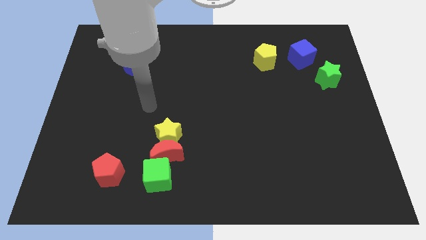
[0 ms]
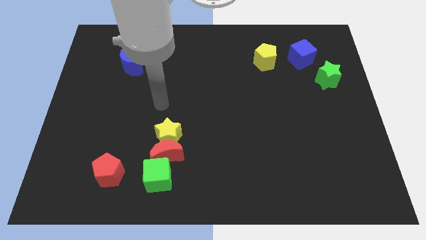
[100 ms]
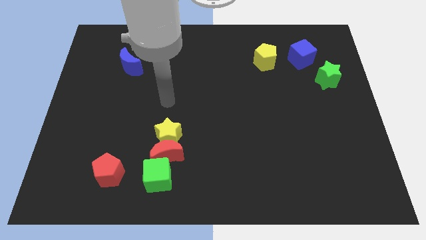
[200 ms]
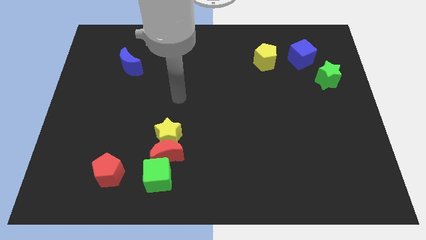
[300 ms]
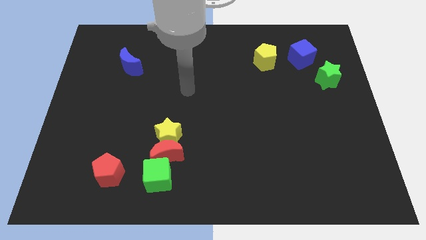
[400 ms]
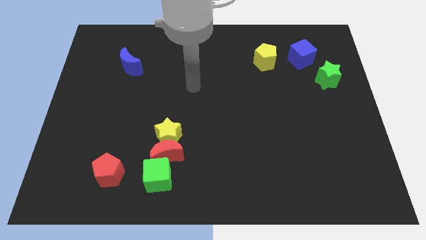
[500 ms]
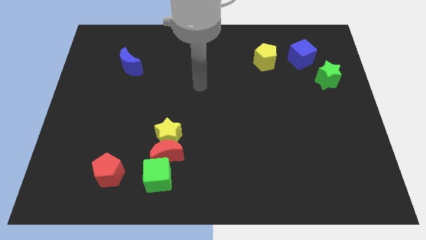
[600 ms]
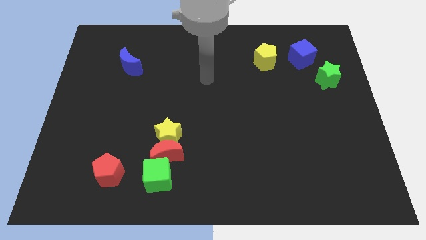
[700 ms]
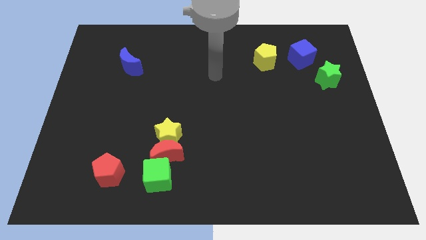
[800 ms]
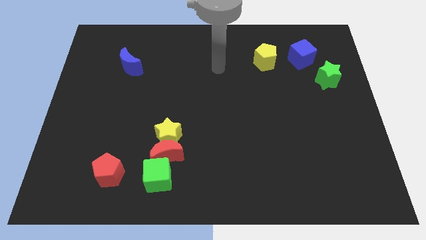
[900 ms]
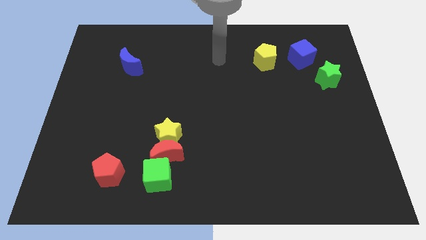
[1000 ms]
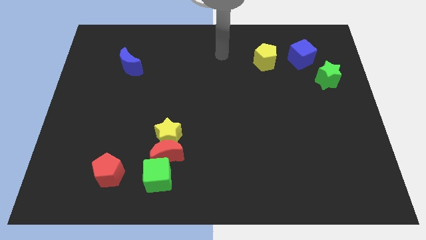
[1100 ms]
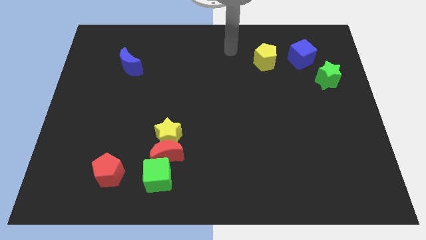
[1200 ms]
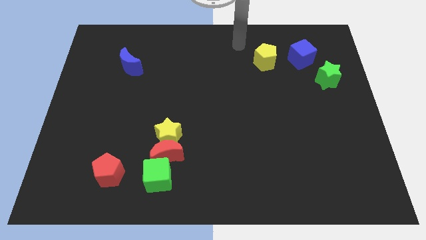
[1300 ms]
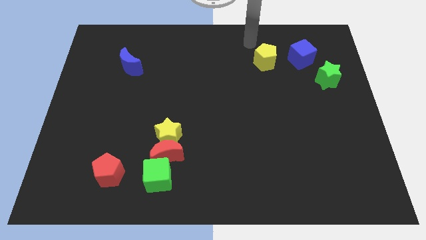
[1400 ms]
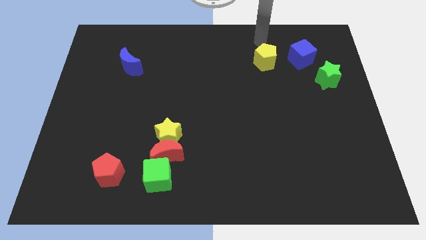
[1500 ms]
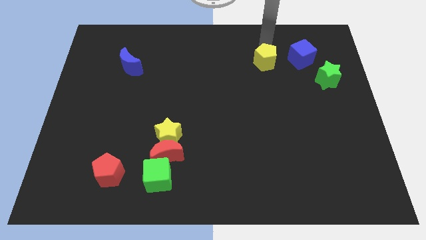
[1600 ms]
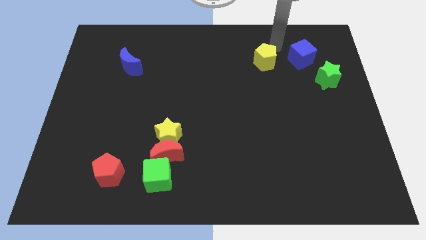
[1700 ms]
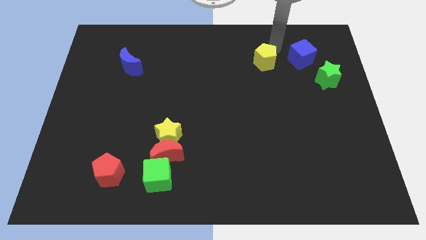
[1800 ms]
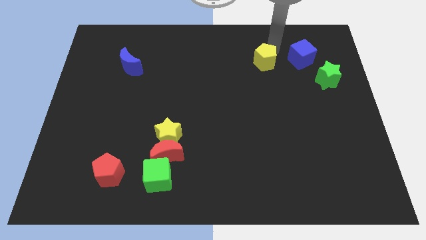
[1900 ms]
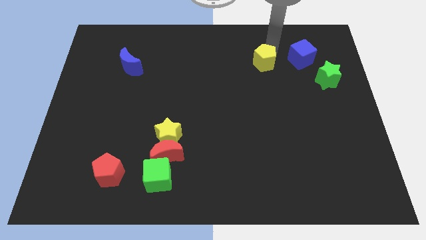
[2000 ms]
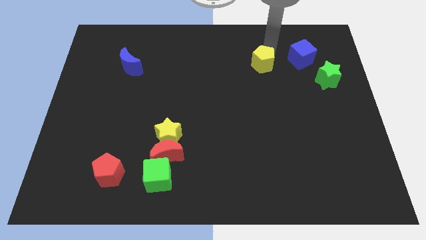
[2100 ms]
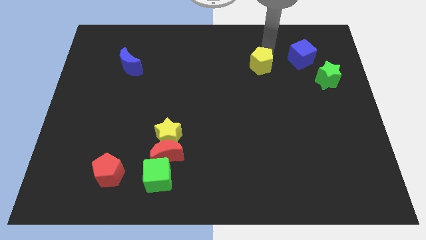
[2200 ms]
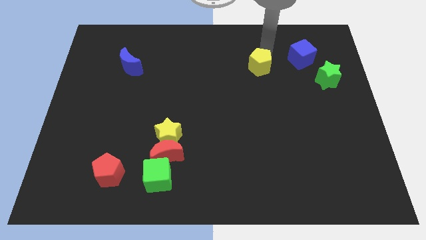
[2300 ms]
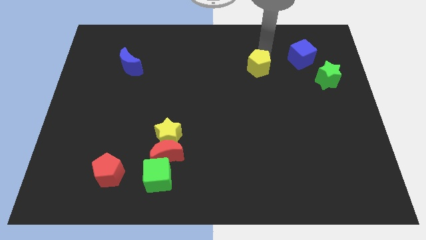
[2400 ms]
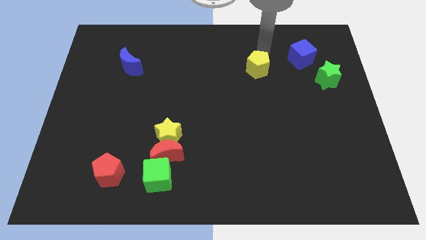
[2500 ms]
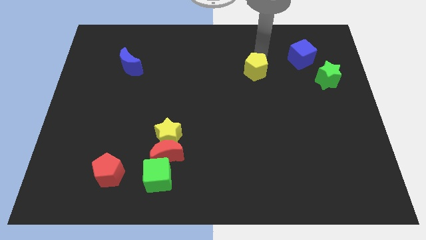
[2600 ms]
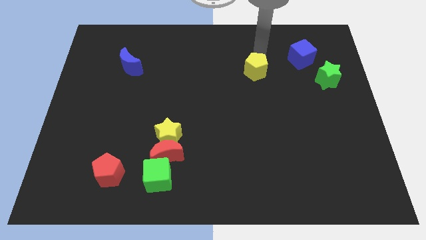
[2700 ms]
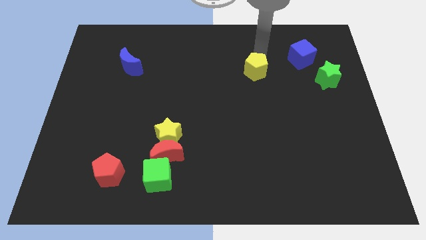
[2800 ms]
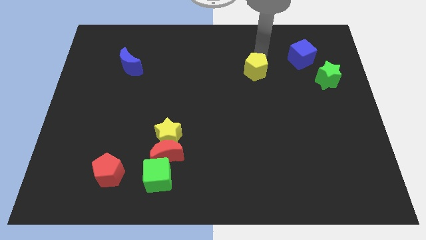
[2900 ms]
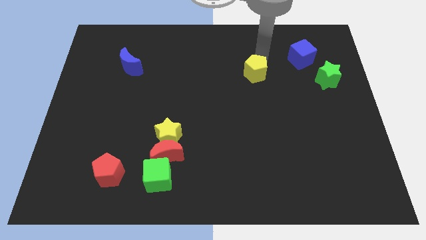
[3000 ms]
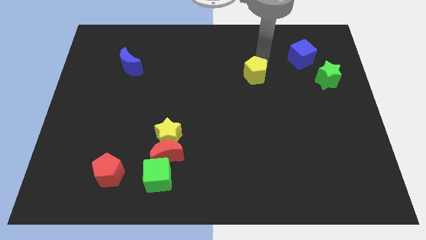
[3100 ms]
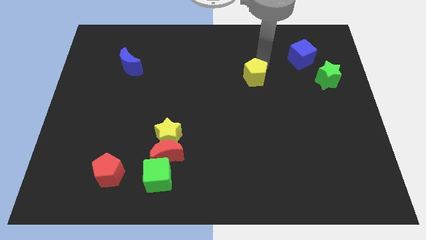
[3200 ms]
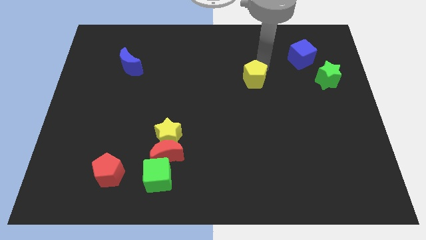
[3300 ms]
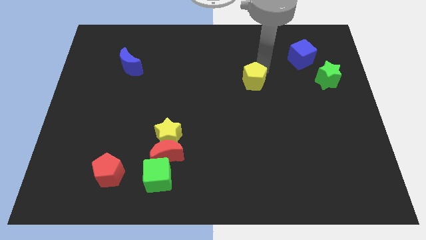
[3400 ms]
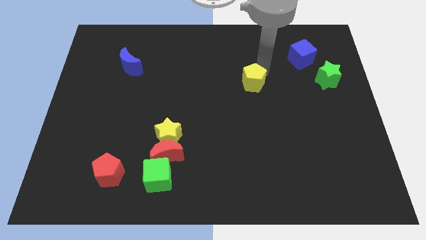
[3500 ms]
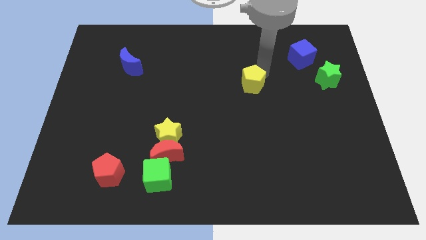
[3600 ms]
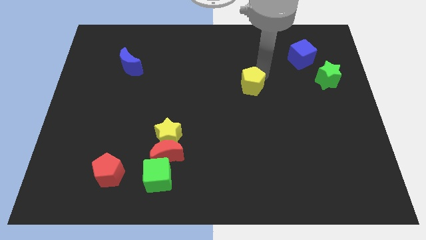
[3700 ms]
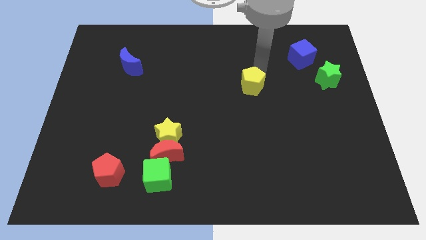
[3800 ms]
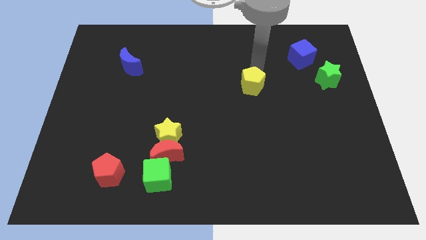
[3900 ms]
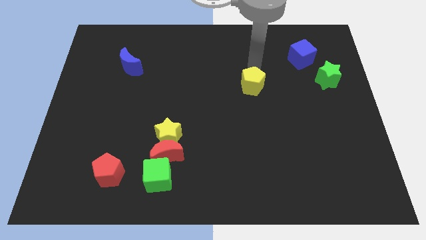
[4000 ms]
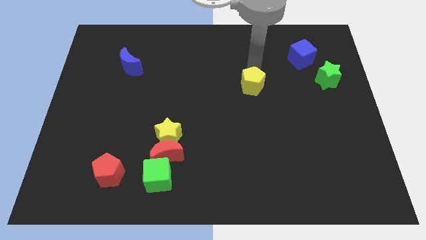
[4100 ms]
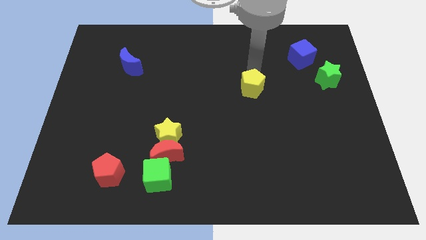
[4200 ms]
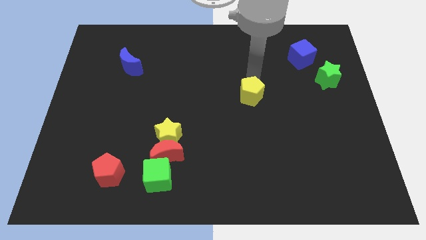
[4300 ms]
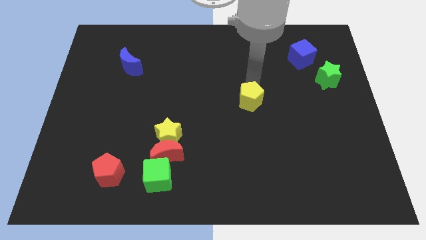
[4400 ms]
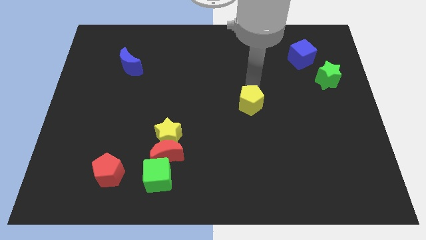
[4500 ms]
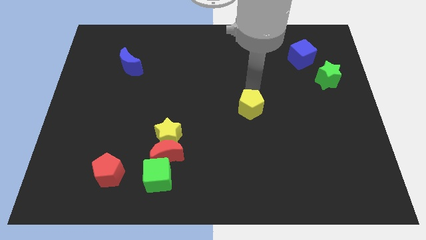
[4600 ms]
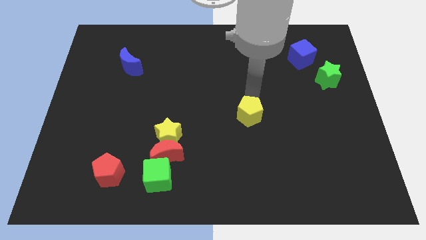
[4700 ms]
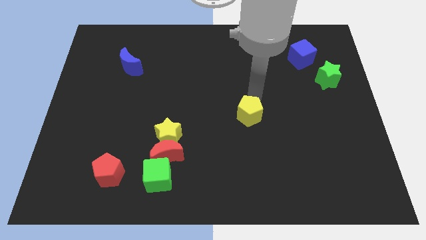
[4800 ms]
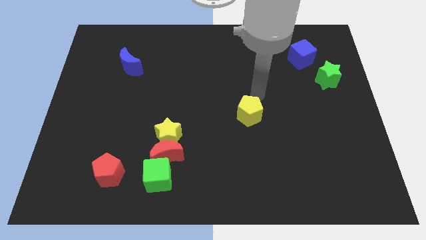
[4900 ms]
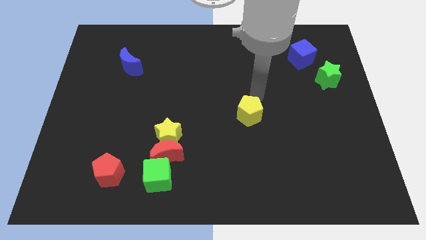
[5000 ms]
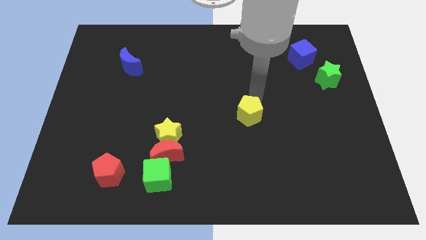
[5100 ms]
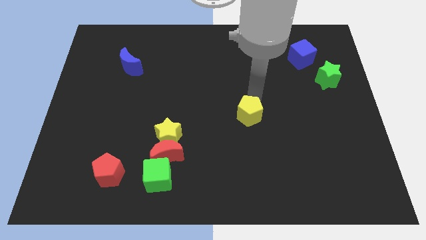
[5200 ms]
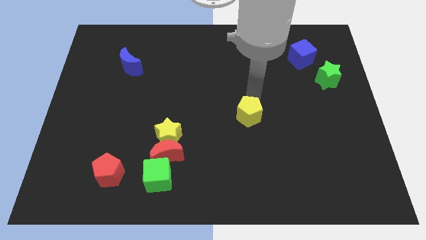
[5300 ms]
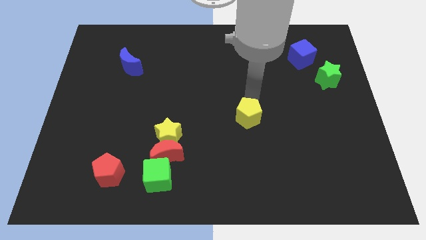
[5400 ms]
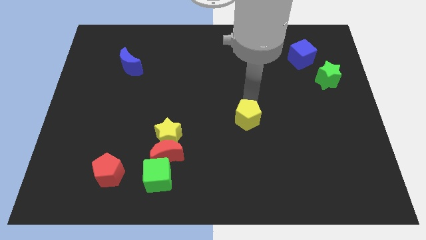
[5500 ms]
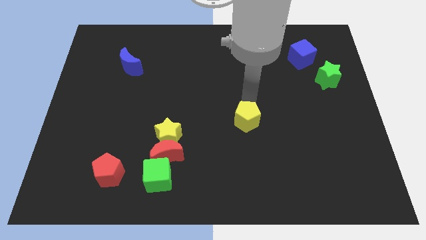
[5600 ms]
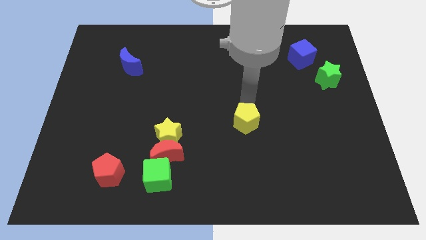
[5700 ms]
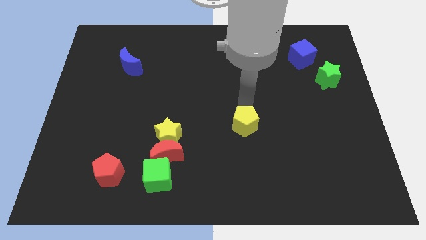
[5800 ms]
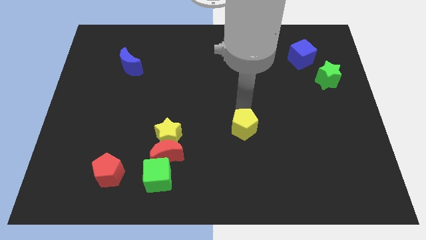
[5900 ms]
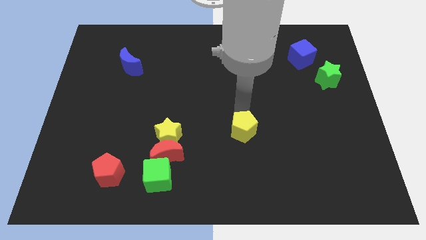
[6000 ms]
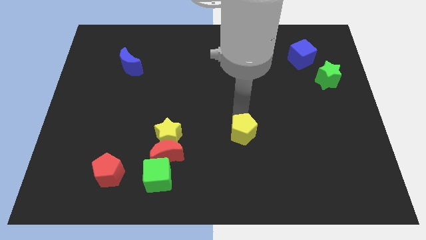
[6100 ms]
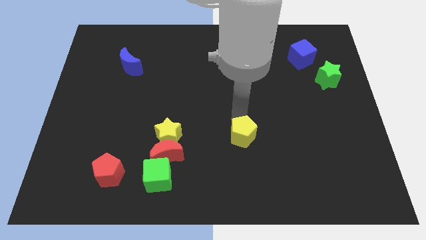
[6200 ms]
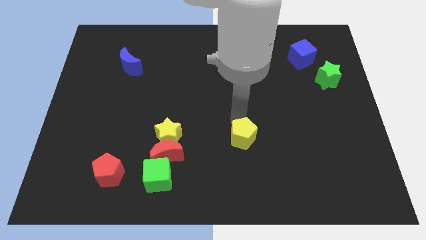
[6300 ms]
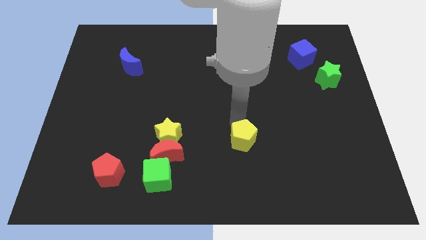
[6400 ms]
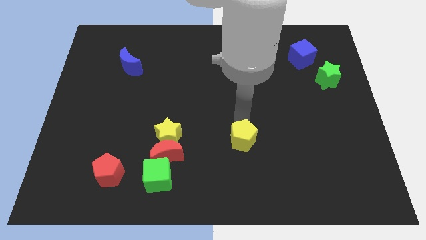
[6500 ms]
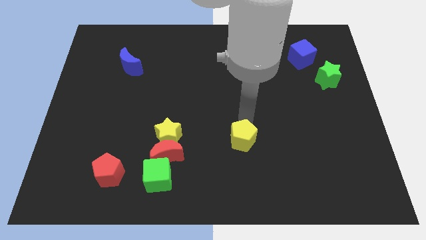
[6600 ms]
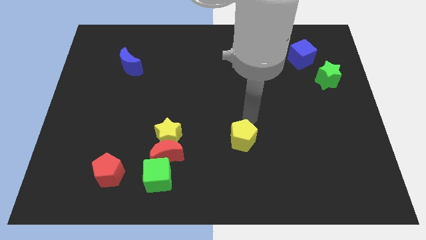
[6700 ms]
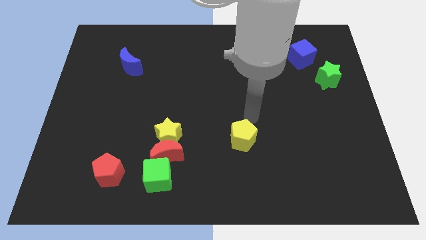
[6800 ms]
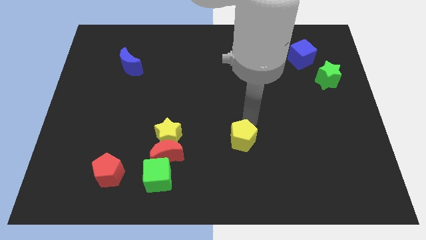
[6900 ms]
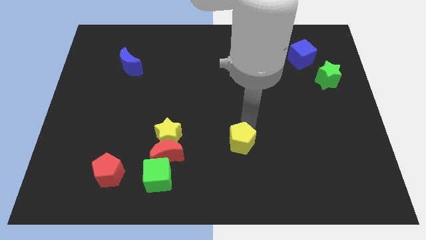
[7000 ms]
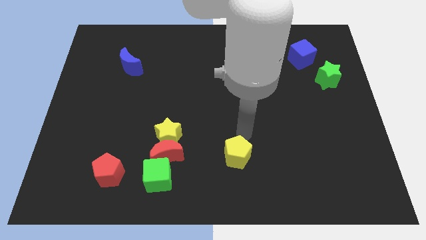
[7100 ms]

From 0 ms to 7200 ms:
put the yellow pentagon to the bottom
